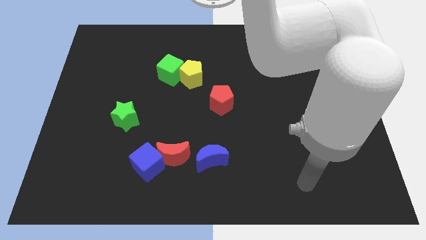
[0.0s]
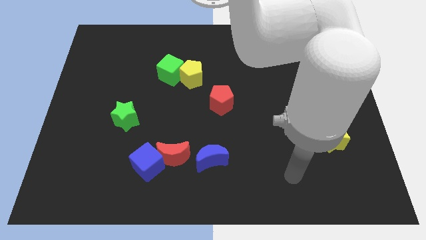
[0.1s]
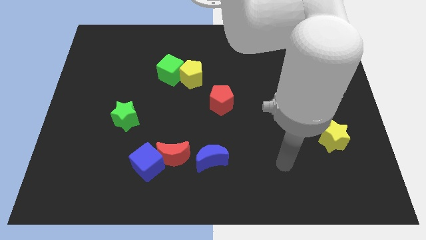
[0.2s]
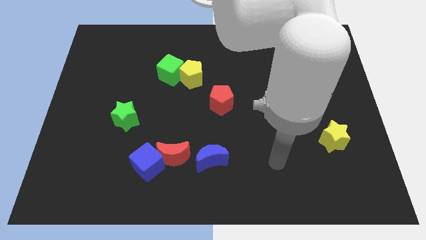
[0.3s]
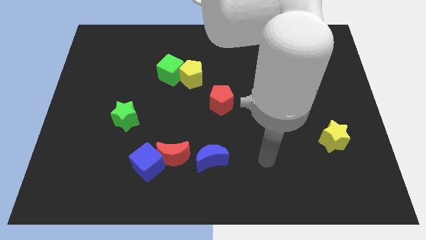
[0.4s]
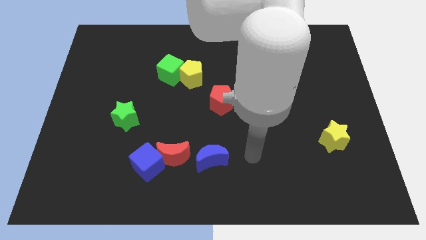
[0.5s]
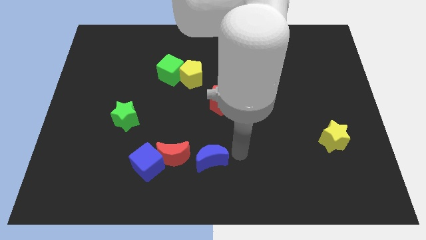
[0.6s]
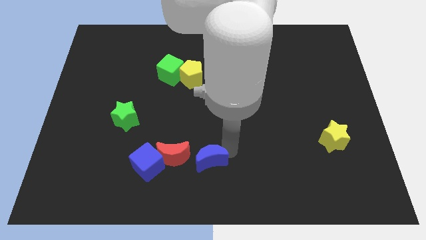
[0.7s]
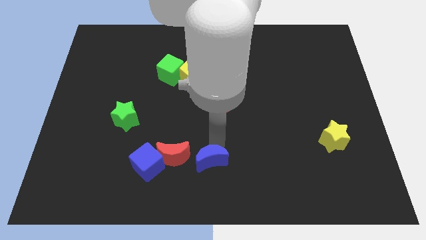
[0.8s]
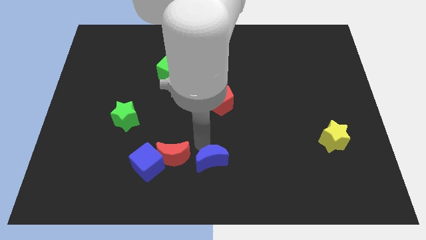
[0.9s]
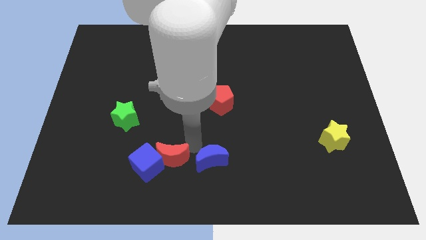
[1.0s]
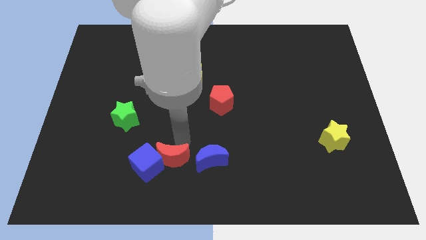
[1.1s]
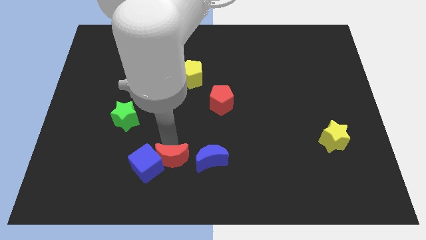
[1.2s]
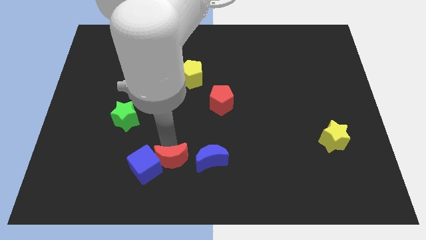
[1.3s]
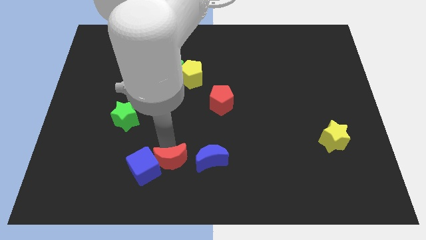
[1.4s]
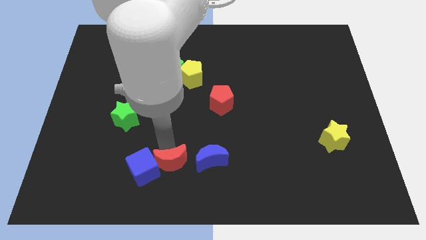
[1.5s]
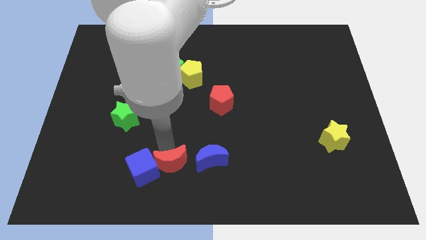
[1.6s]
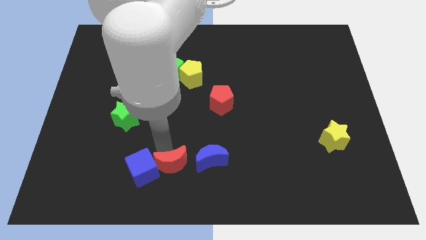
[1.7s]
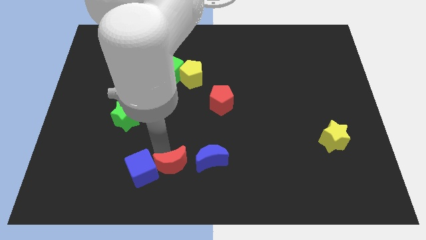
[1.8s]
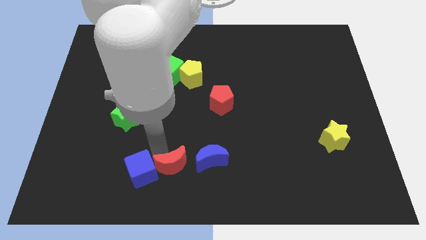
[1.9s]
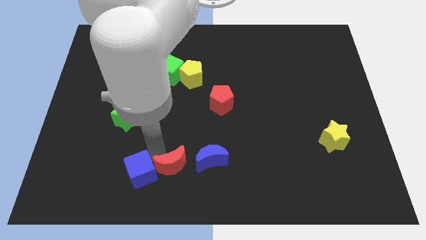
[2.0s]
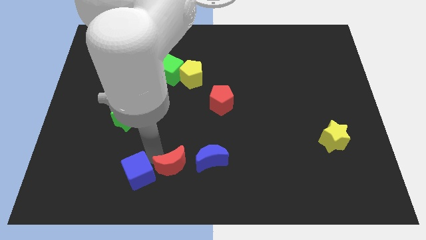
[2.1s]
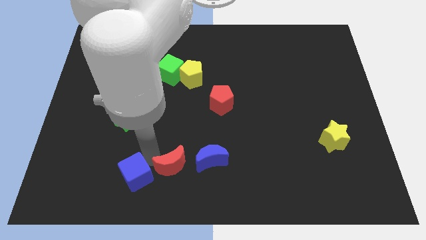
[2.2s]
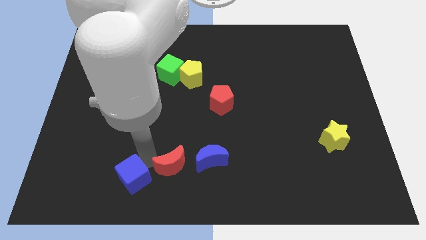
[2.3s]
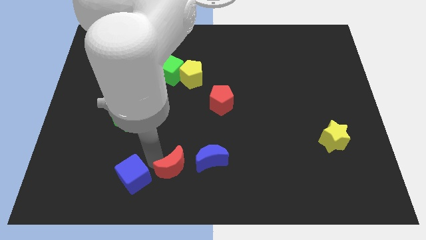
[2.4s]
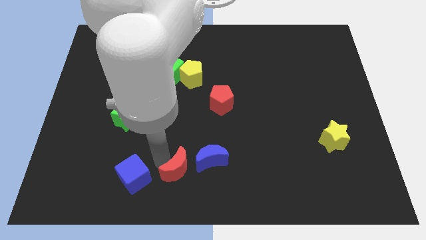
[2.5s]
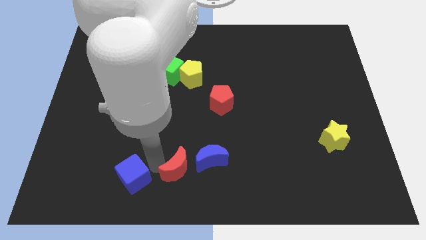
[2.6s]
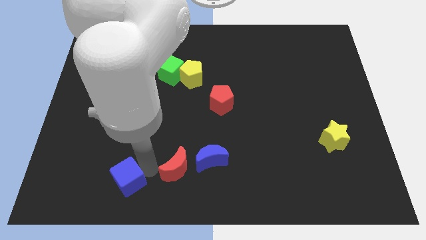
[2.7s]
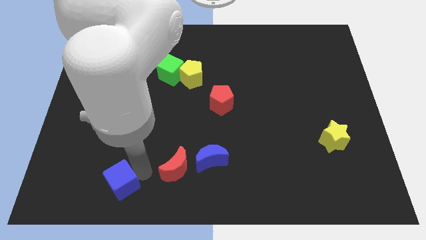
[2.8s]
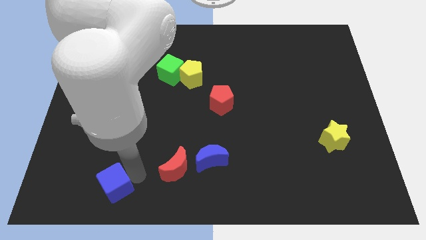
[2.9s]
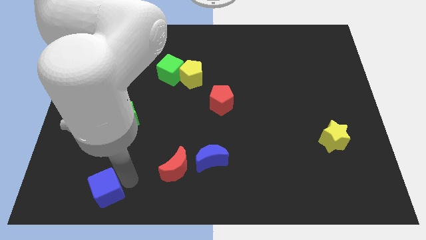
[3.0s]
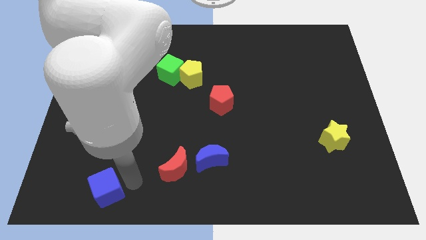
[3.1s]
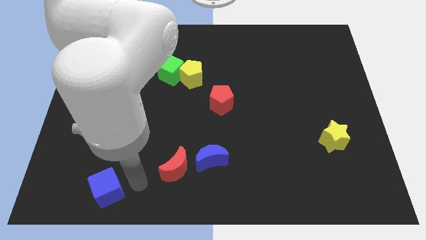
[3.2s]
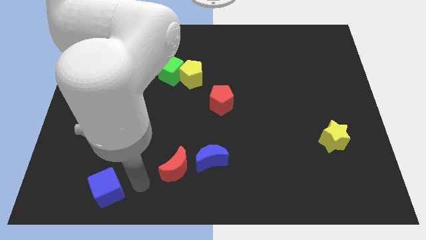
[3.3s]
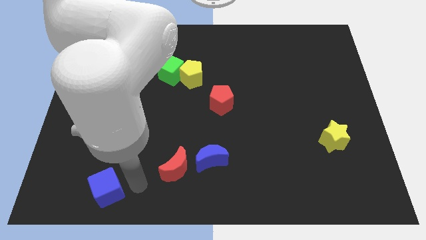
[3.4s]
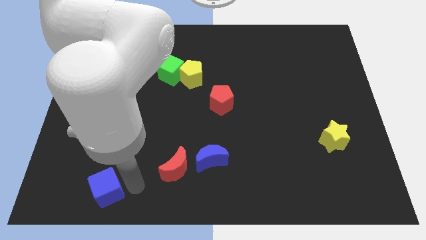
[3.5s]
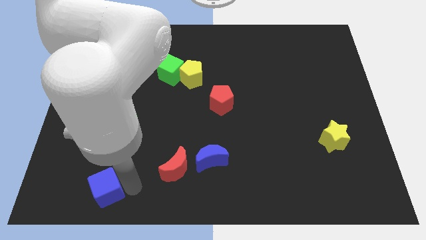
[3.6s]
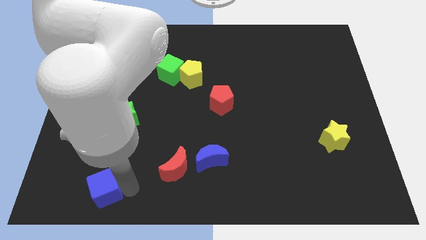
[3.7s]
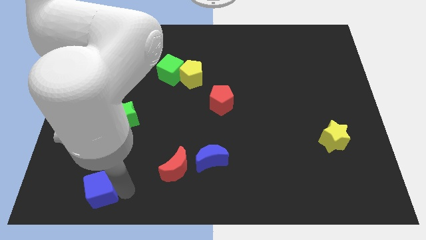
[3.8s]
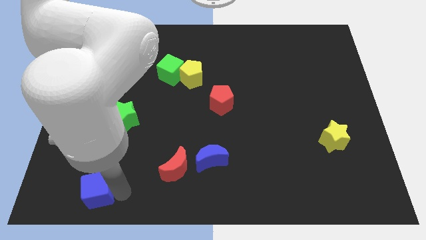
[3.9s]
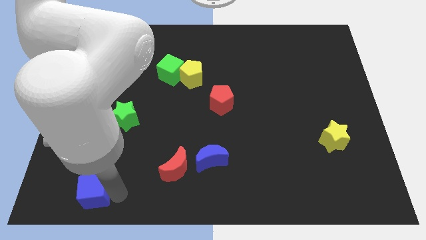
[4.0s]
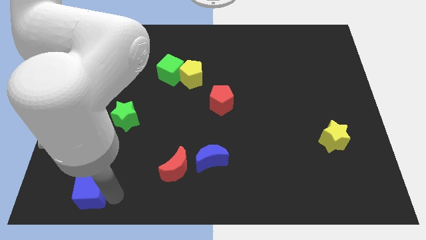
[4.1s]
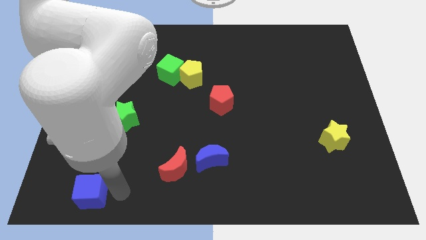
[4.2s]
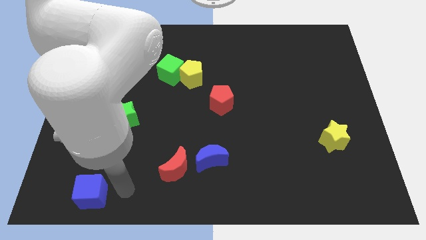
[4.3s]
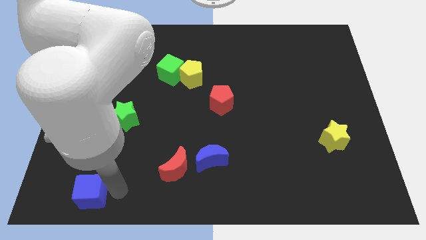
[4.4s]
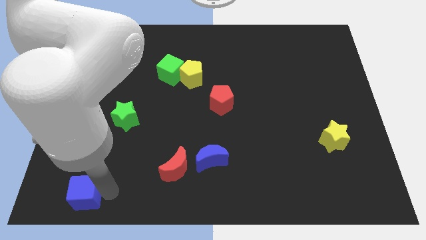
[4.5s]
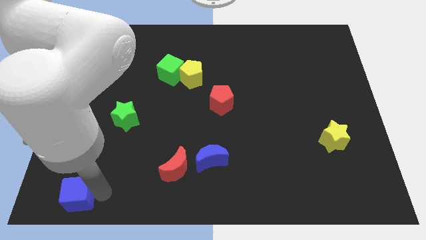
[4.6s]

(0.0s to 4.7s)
put the blue cube to the bottom left corner

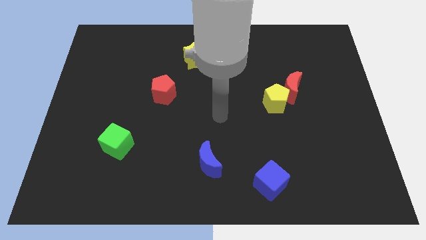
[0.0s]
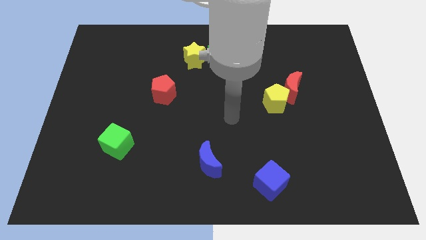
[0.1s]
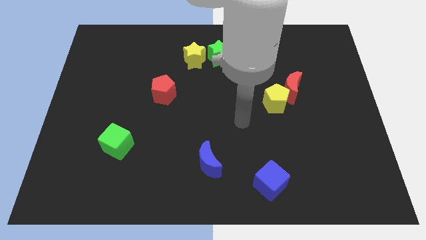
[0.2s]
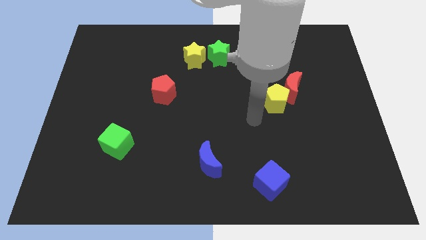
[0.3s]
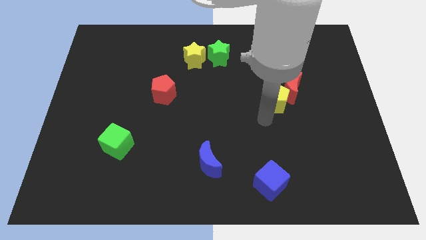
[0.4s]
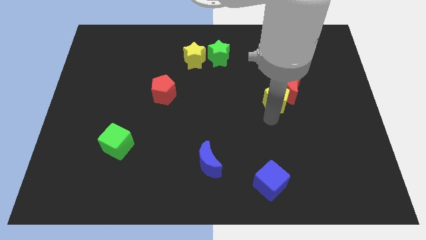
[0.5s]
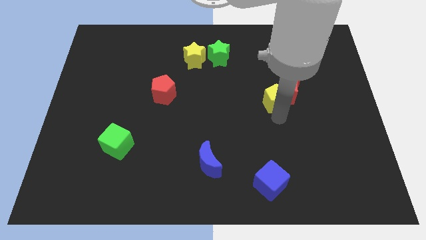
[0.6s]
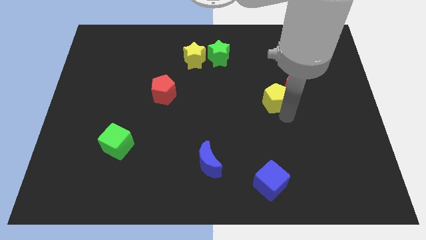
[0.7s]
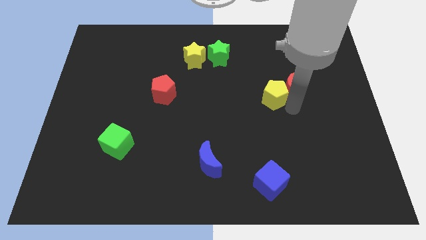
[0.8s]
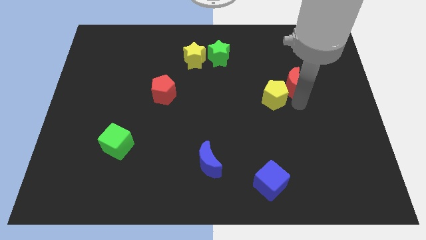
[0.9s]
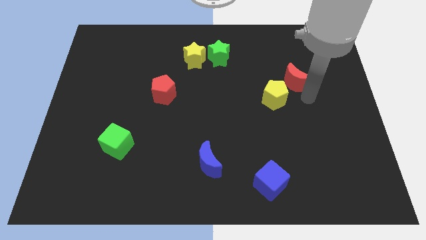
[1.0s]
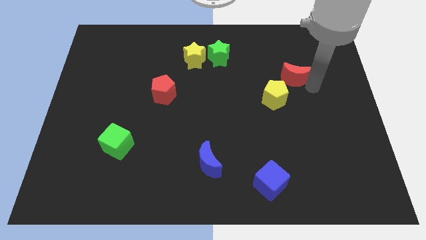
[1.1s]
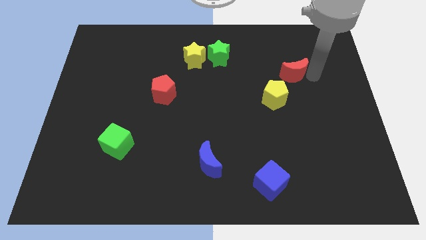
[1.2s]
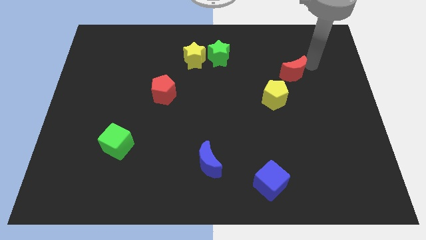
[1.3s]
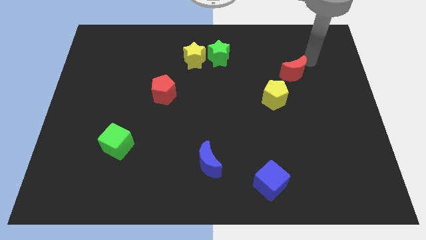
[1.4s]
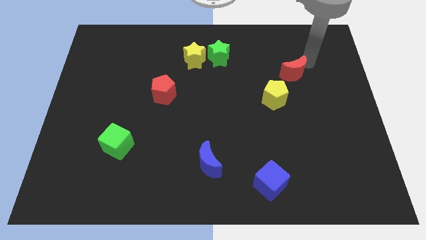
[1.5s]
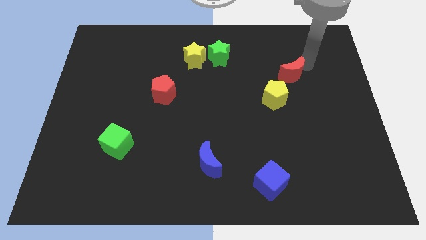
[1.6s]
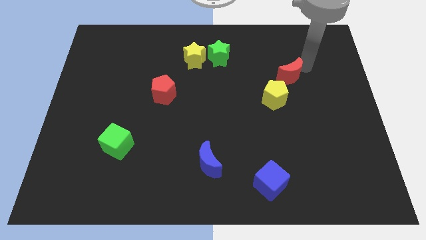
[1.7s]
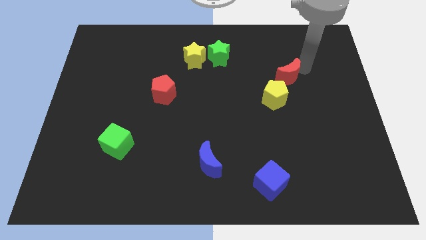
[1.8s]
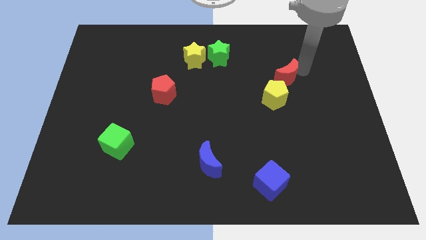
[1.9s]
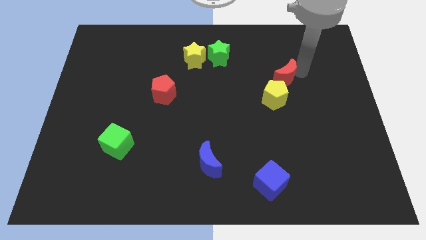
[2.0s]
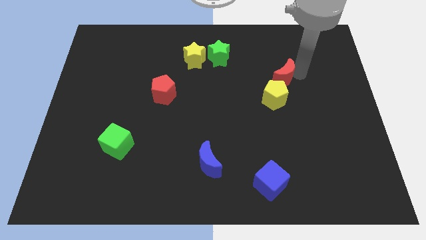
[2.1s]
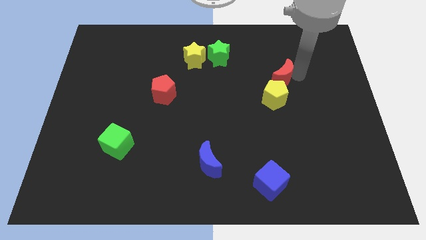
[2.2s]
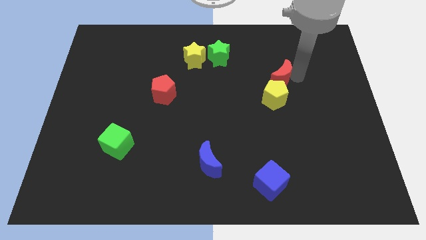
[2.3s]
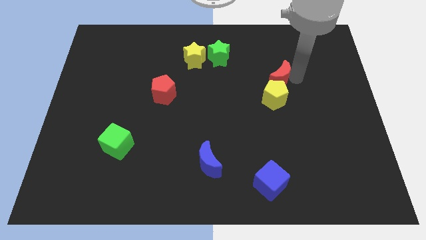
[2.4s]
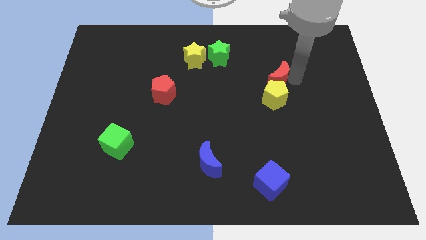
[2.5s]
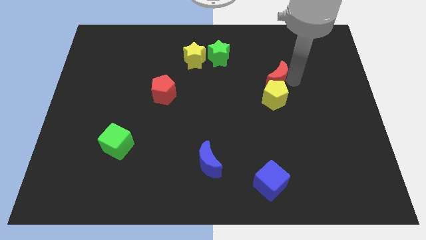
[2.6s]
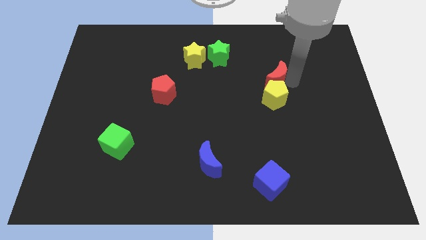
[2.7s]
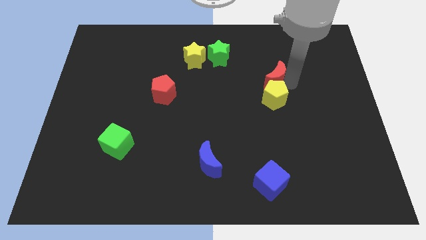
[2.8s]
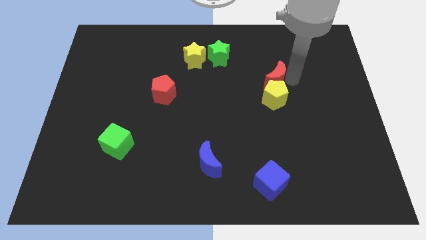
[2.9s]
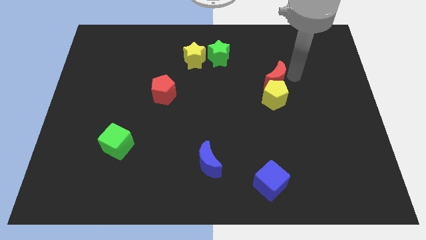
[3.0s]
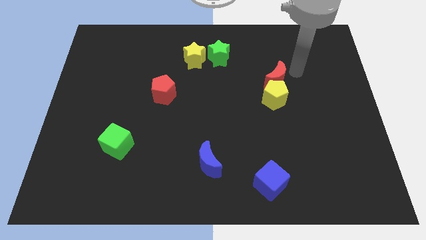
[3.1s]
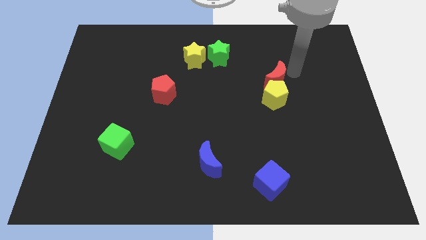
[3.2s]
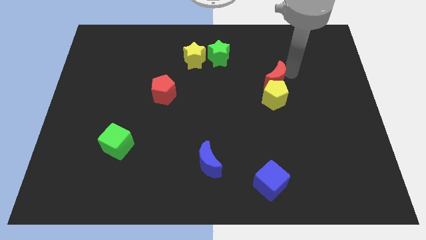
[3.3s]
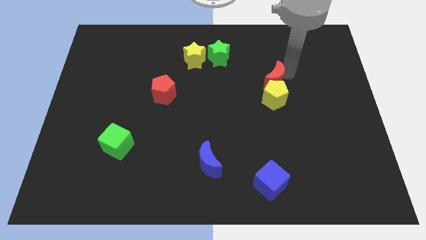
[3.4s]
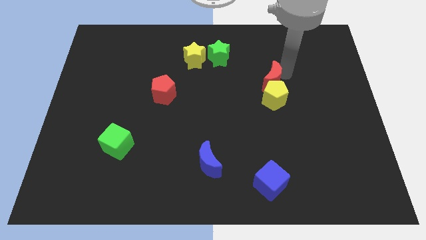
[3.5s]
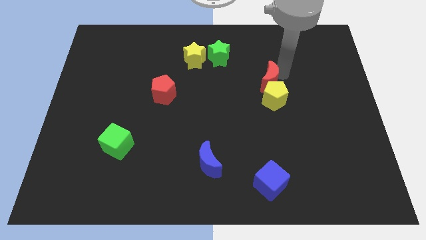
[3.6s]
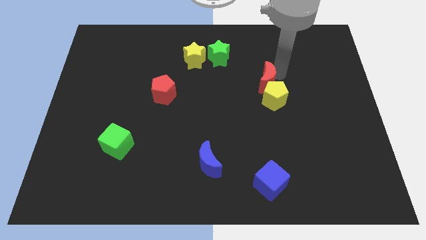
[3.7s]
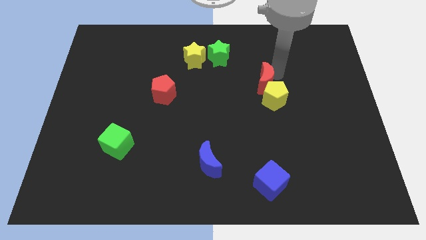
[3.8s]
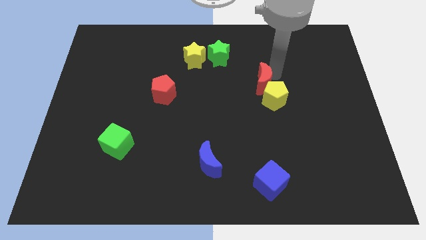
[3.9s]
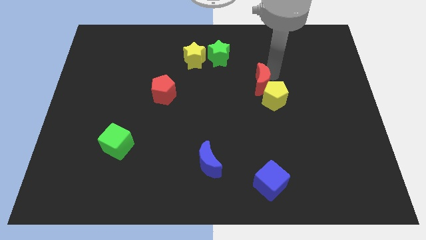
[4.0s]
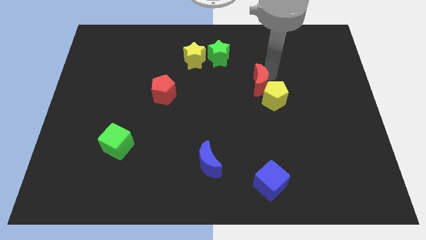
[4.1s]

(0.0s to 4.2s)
push the red moon to the center of the board
